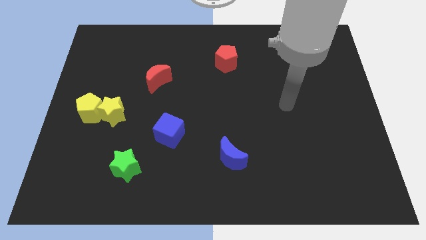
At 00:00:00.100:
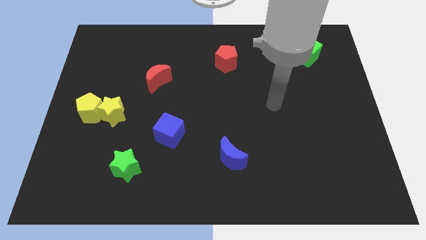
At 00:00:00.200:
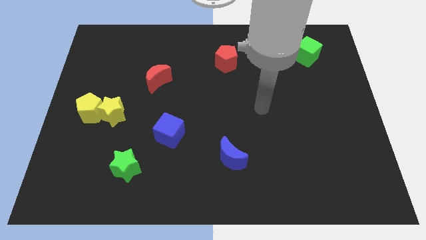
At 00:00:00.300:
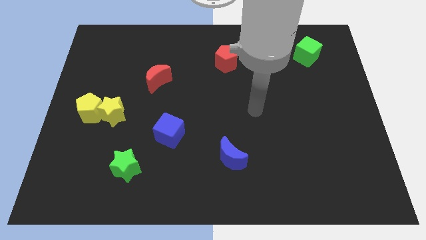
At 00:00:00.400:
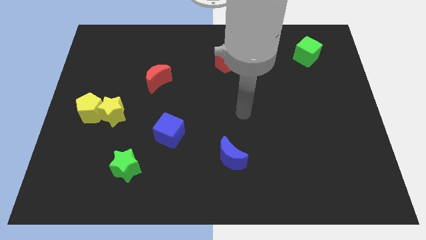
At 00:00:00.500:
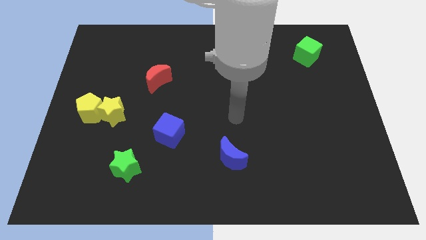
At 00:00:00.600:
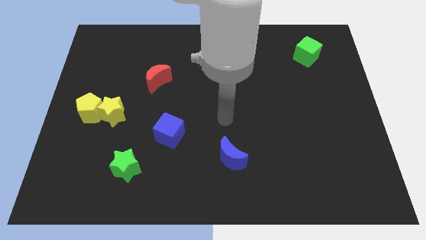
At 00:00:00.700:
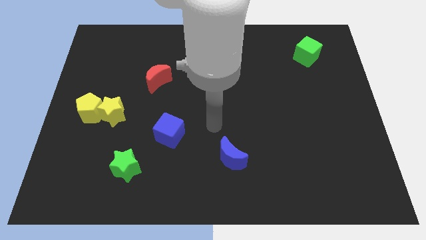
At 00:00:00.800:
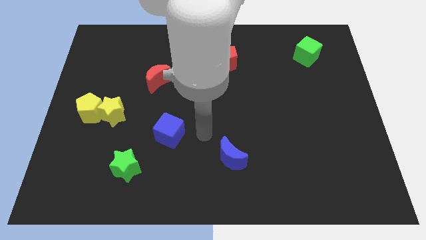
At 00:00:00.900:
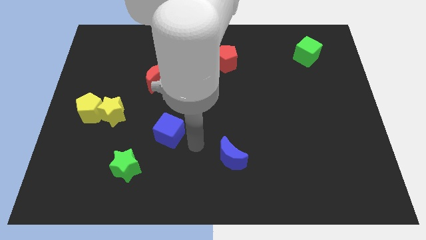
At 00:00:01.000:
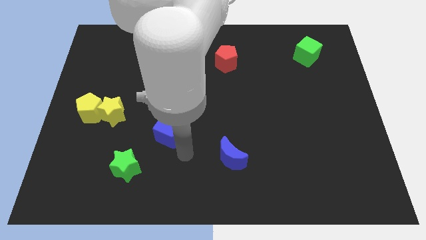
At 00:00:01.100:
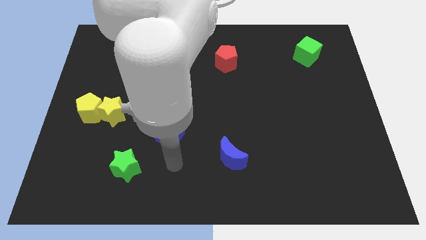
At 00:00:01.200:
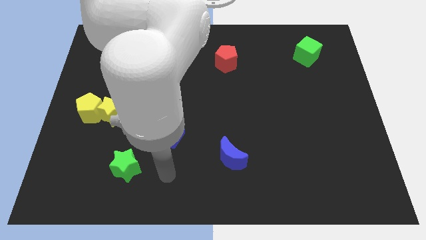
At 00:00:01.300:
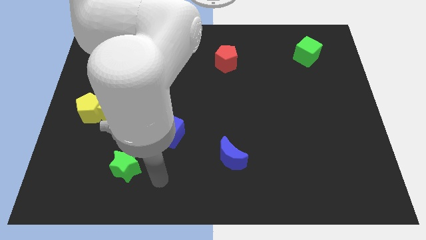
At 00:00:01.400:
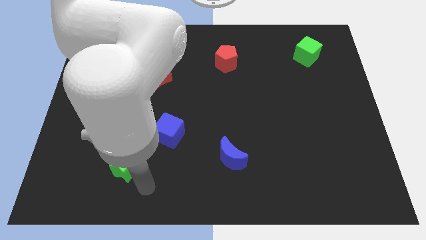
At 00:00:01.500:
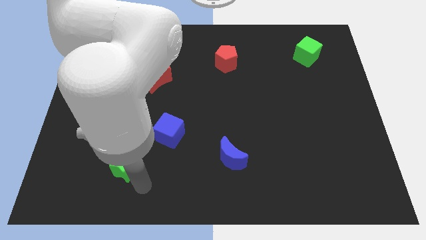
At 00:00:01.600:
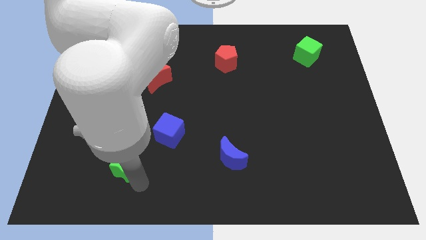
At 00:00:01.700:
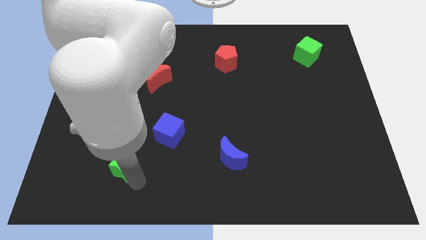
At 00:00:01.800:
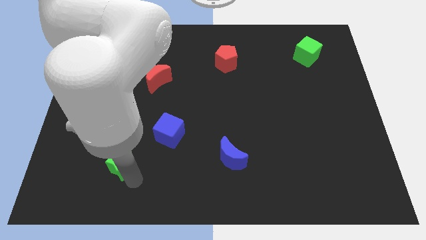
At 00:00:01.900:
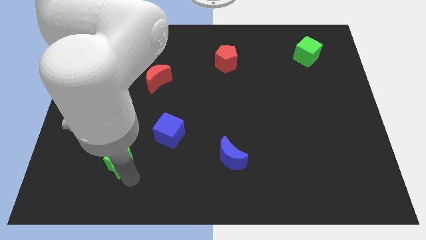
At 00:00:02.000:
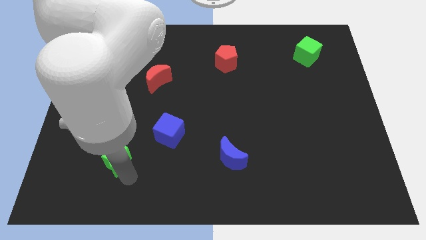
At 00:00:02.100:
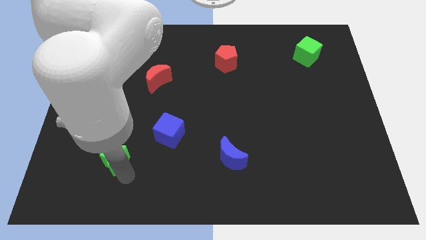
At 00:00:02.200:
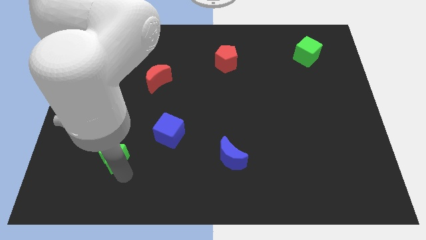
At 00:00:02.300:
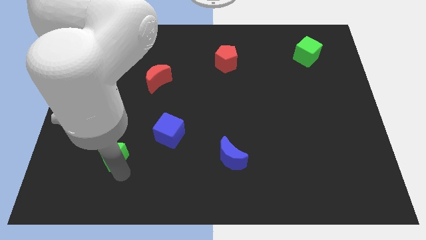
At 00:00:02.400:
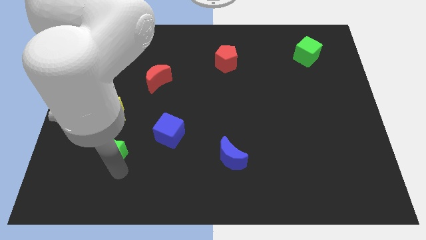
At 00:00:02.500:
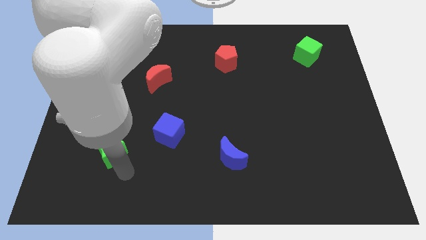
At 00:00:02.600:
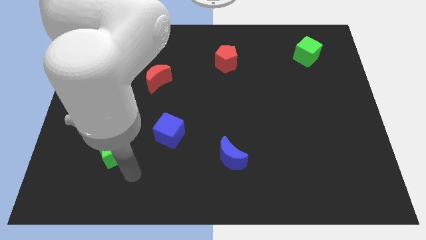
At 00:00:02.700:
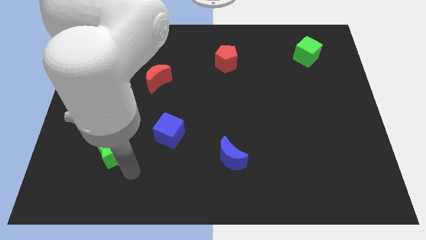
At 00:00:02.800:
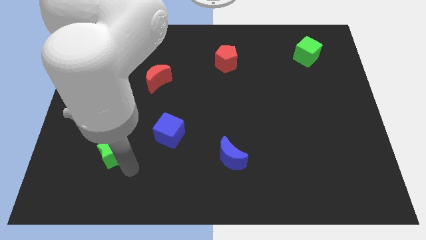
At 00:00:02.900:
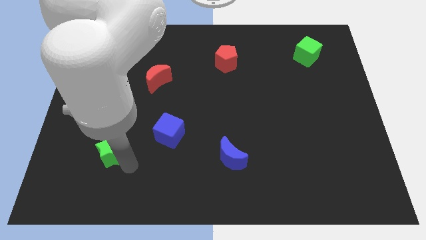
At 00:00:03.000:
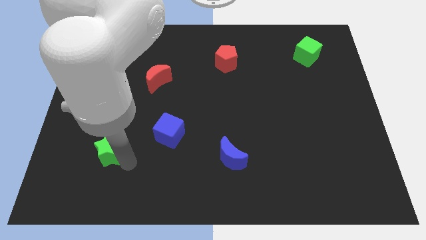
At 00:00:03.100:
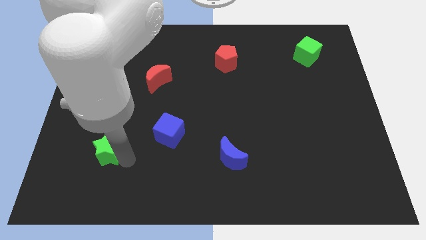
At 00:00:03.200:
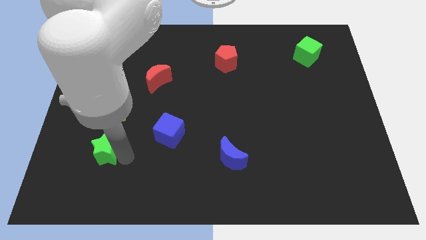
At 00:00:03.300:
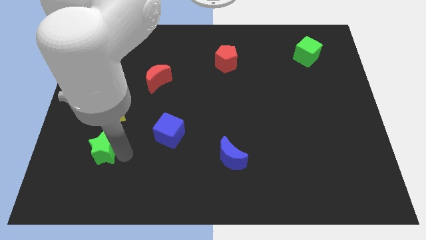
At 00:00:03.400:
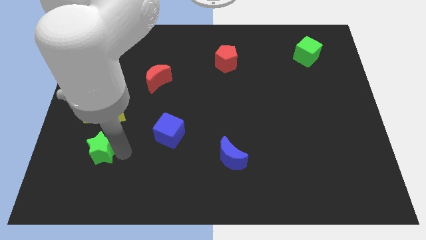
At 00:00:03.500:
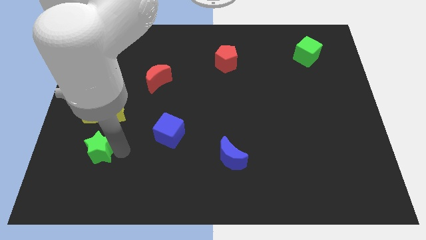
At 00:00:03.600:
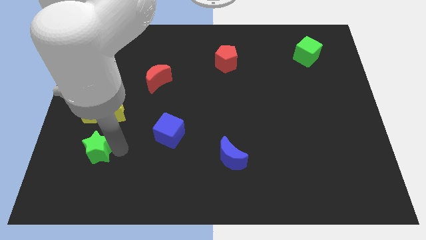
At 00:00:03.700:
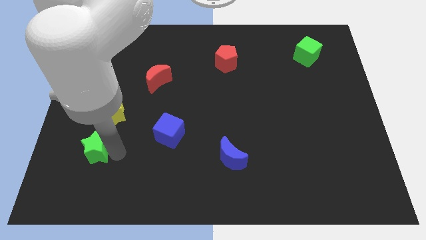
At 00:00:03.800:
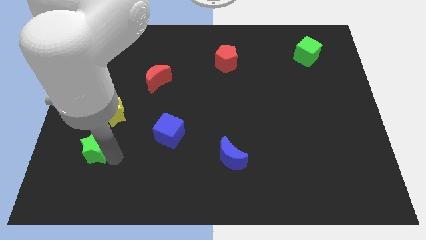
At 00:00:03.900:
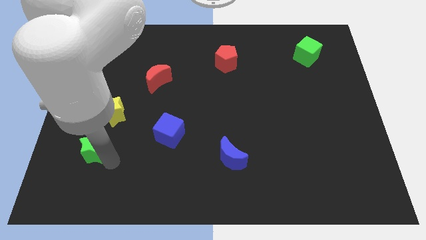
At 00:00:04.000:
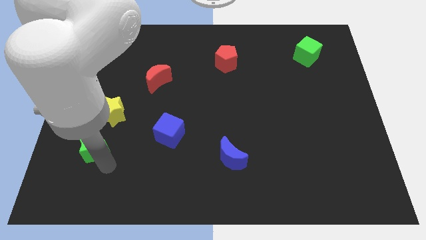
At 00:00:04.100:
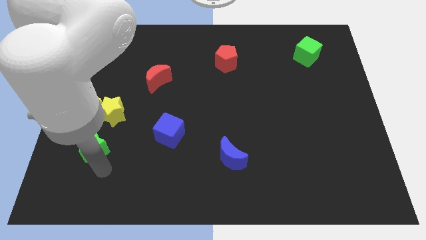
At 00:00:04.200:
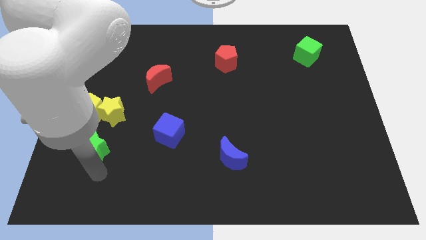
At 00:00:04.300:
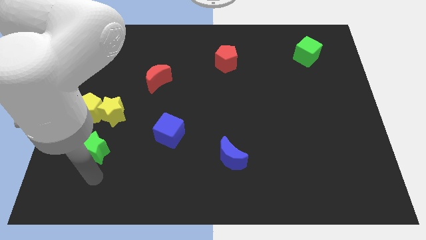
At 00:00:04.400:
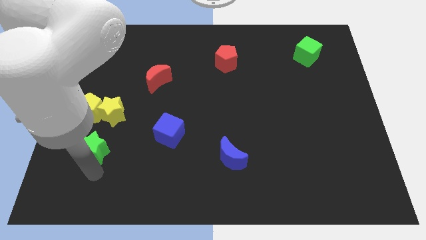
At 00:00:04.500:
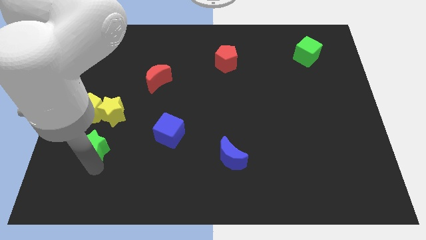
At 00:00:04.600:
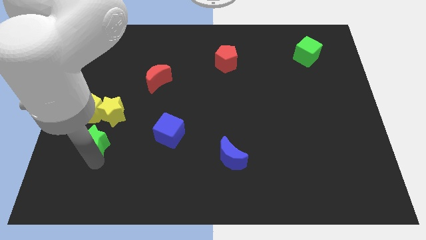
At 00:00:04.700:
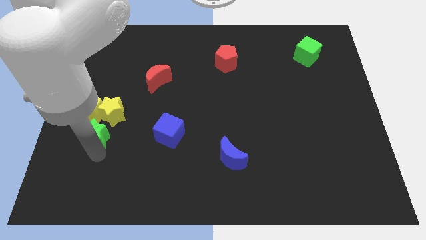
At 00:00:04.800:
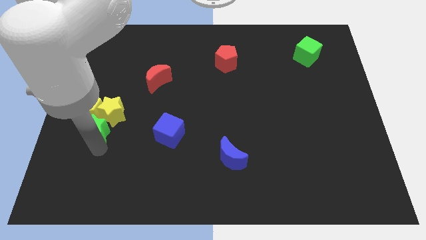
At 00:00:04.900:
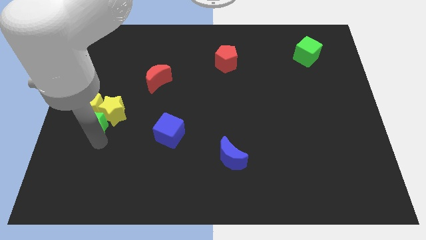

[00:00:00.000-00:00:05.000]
push the green star to the yellow pentagon

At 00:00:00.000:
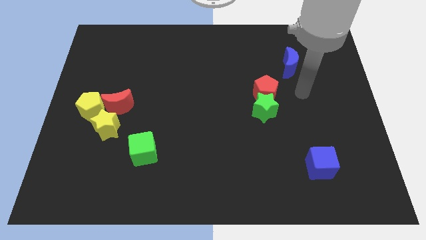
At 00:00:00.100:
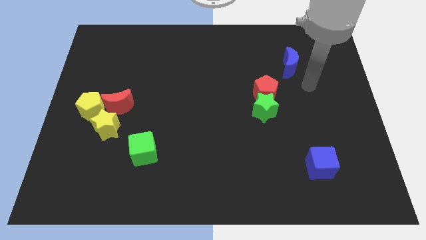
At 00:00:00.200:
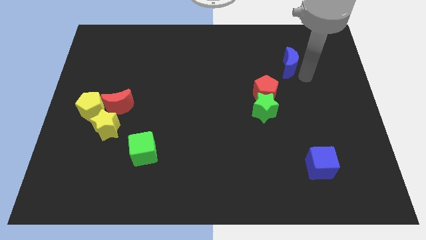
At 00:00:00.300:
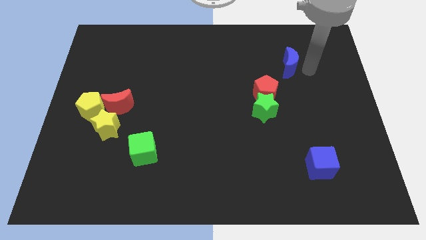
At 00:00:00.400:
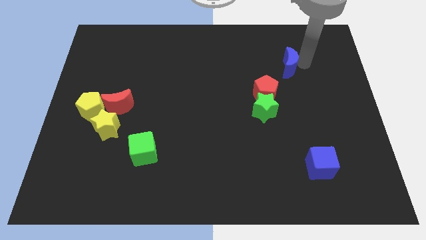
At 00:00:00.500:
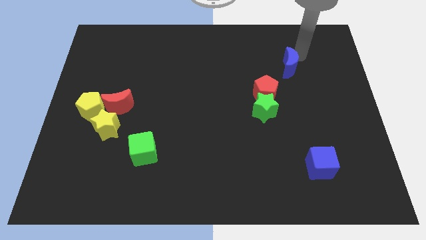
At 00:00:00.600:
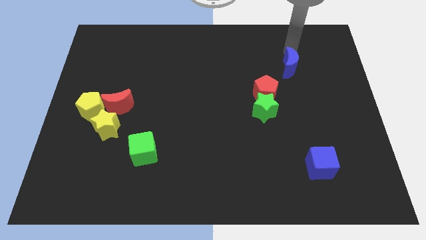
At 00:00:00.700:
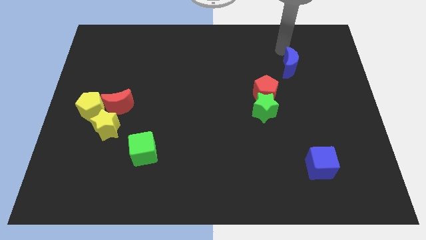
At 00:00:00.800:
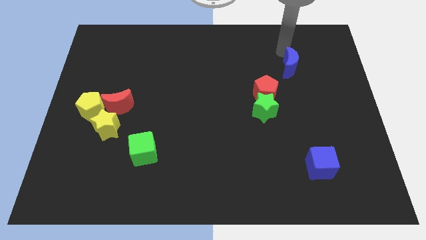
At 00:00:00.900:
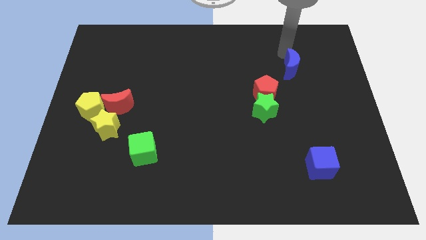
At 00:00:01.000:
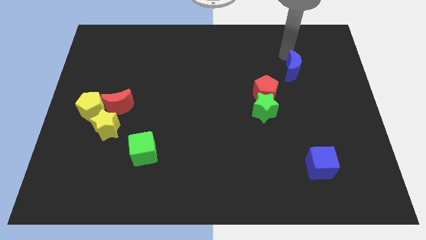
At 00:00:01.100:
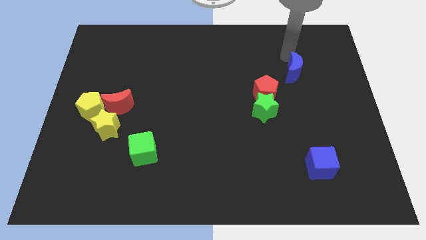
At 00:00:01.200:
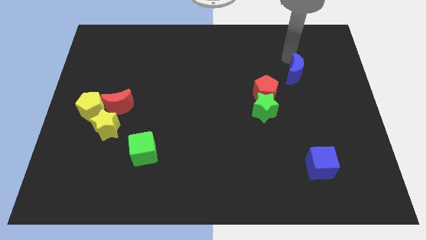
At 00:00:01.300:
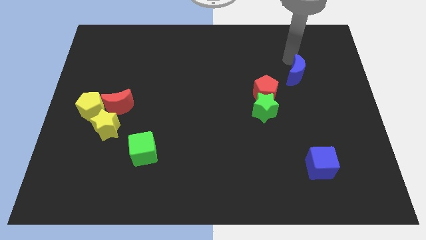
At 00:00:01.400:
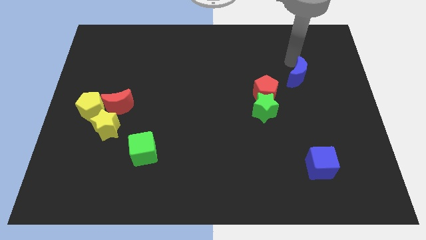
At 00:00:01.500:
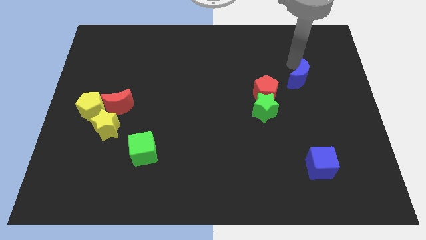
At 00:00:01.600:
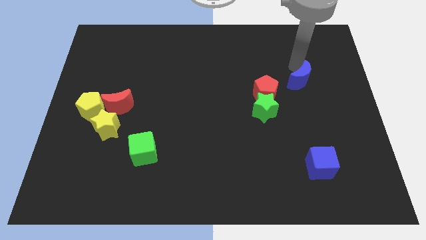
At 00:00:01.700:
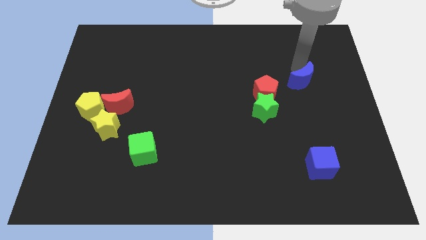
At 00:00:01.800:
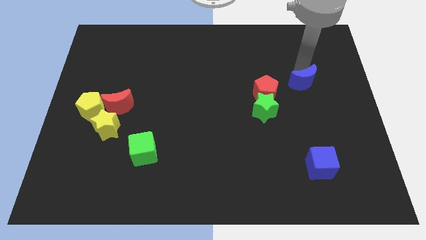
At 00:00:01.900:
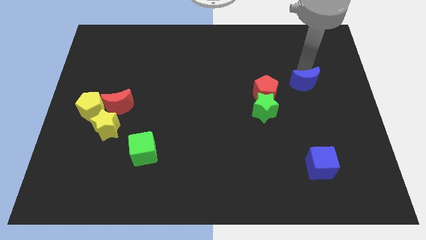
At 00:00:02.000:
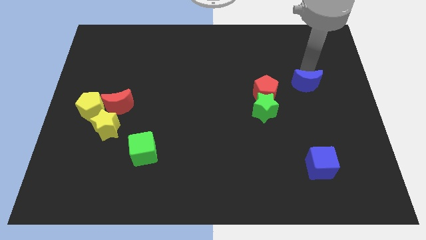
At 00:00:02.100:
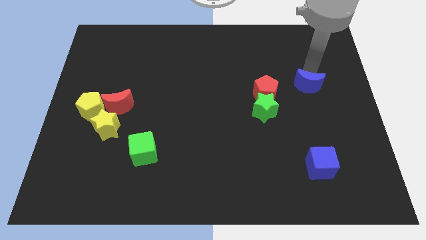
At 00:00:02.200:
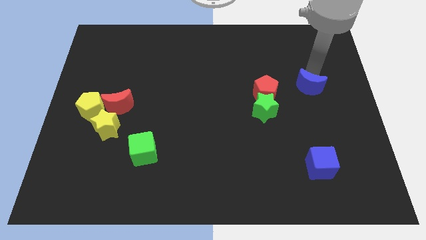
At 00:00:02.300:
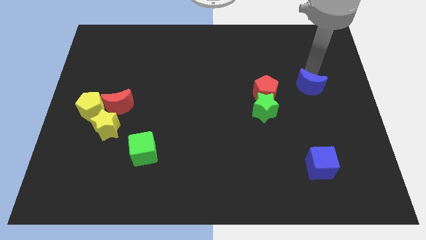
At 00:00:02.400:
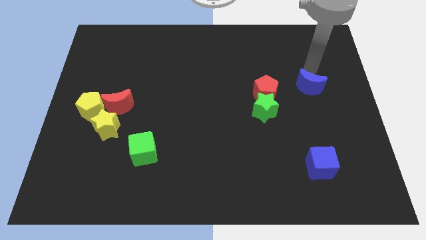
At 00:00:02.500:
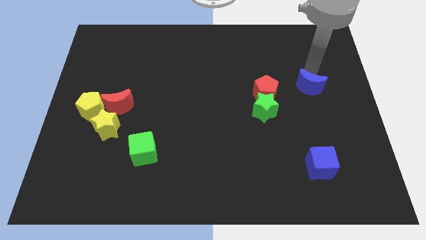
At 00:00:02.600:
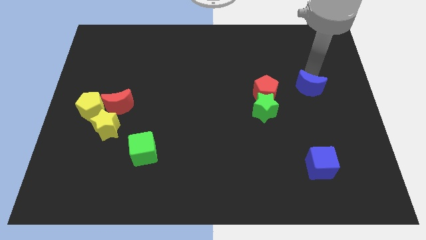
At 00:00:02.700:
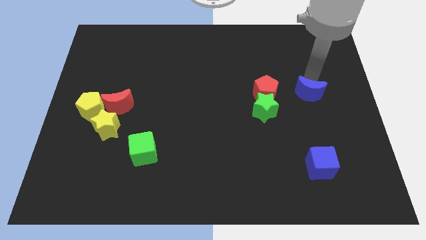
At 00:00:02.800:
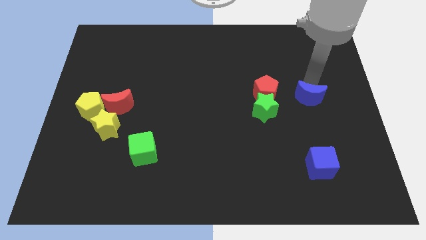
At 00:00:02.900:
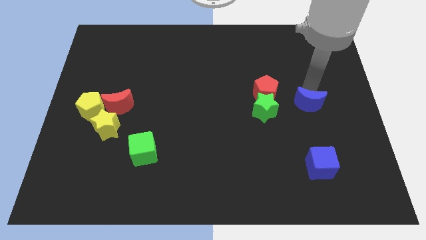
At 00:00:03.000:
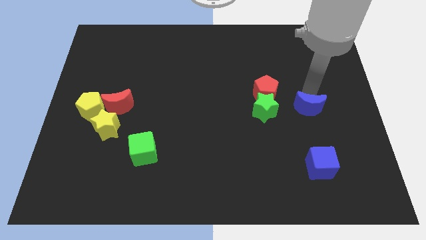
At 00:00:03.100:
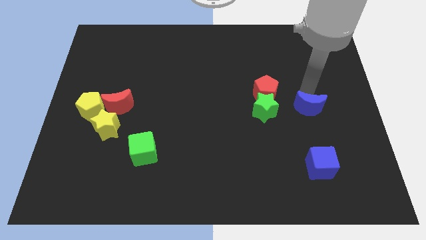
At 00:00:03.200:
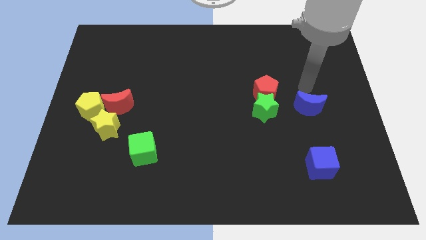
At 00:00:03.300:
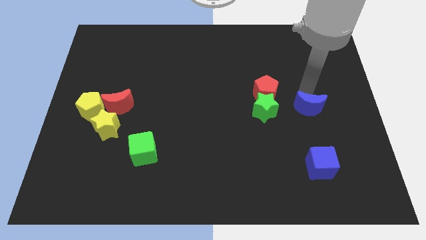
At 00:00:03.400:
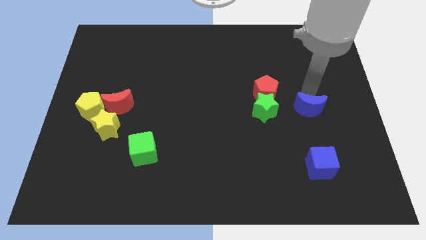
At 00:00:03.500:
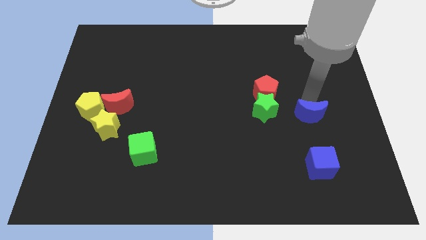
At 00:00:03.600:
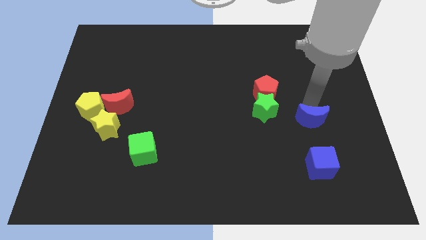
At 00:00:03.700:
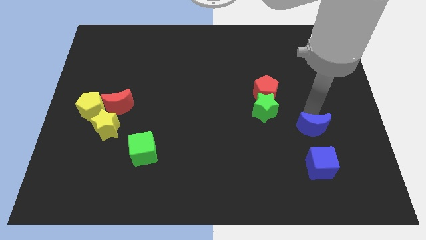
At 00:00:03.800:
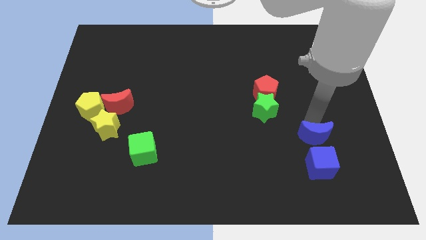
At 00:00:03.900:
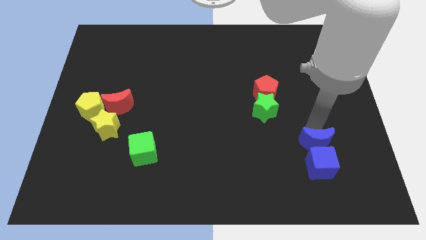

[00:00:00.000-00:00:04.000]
move the blue moon next to the blue cube
